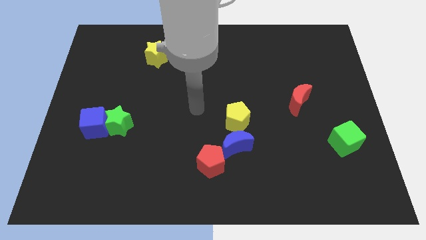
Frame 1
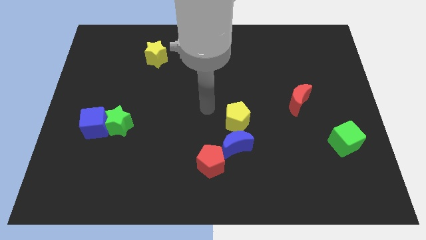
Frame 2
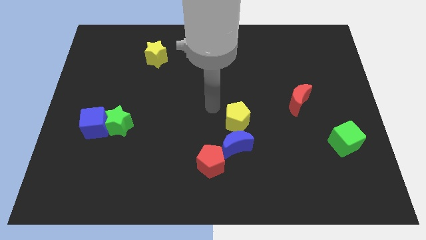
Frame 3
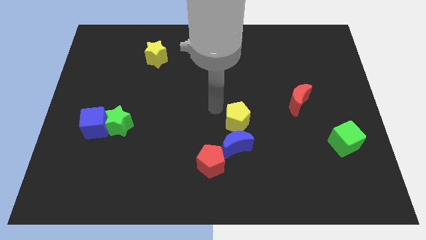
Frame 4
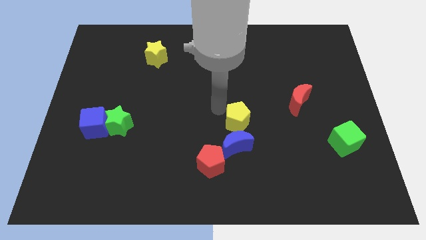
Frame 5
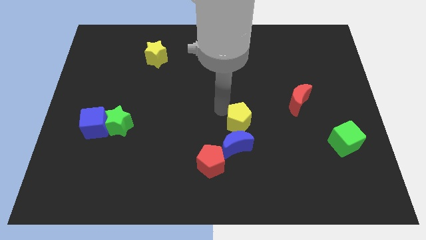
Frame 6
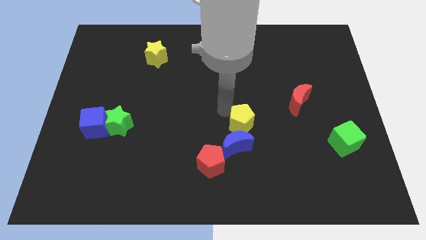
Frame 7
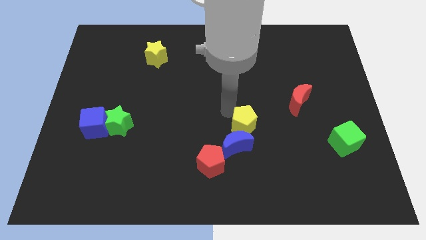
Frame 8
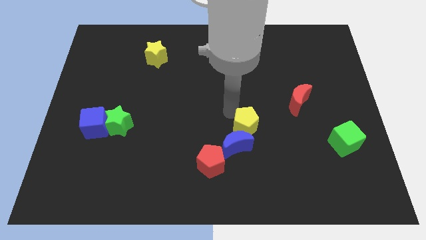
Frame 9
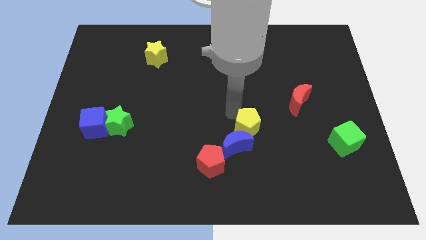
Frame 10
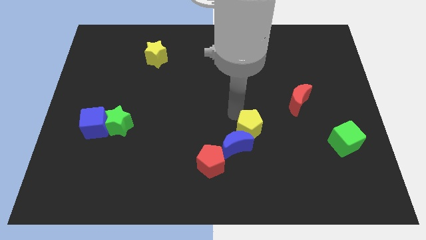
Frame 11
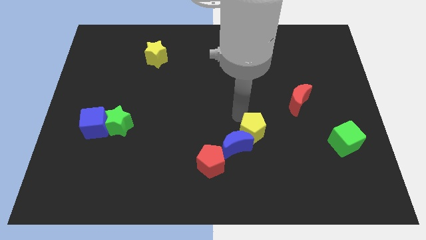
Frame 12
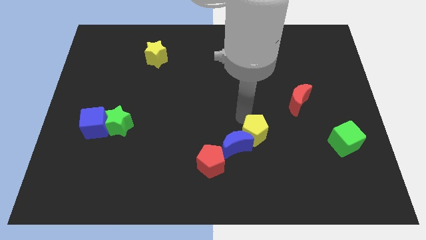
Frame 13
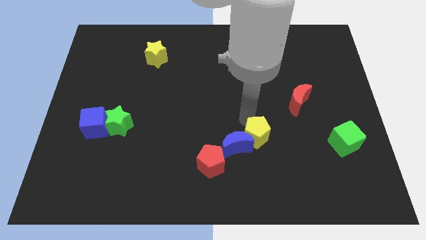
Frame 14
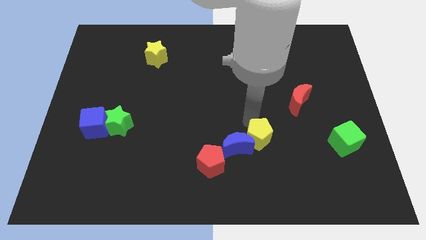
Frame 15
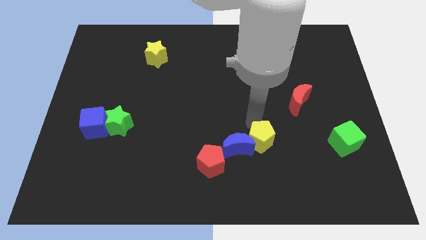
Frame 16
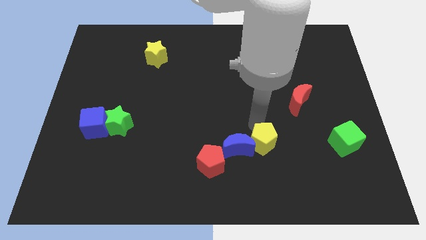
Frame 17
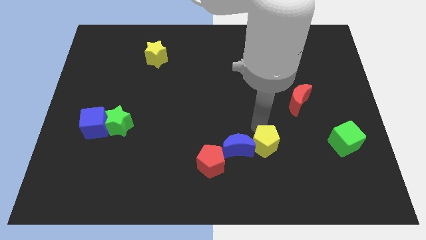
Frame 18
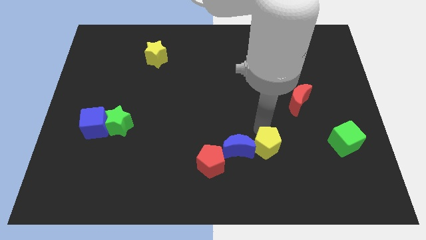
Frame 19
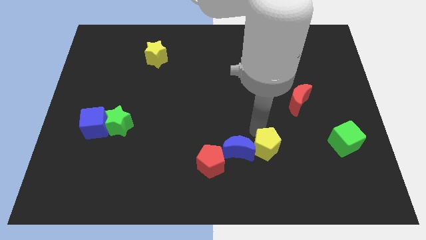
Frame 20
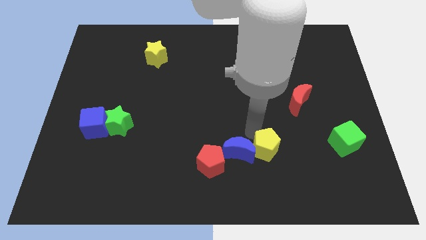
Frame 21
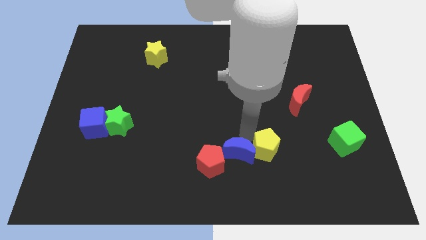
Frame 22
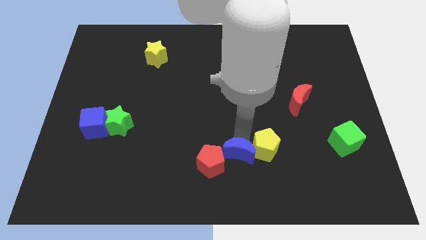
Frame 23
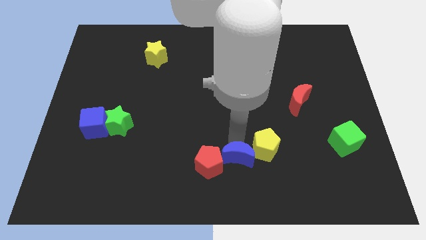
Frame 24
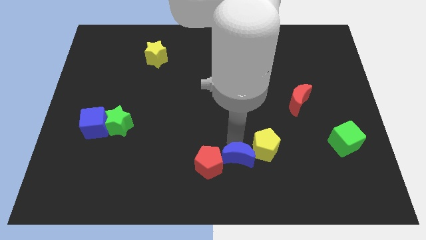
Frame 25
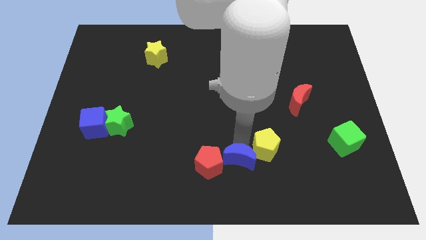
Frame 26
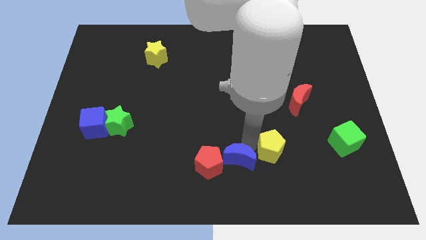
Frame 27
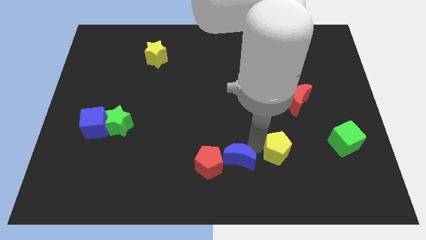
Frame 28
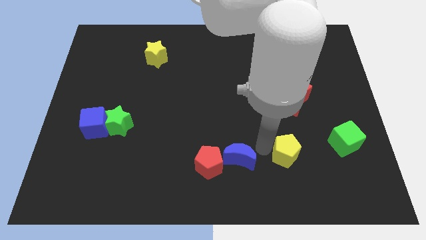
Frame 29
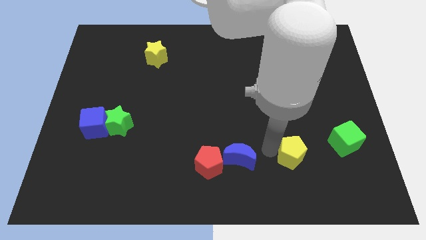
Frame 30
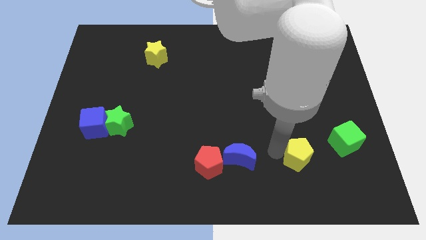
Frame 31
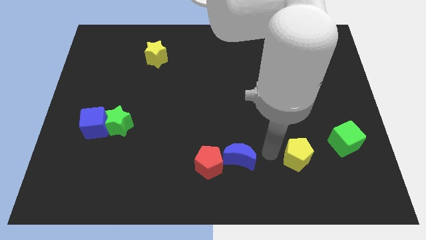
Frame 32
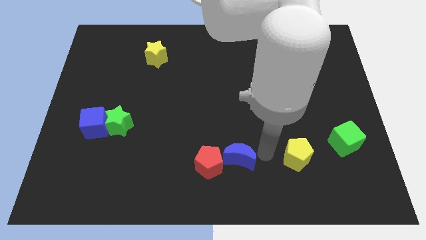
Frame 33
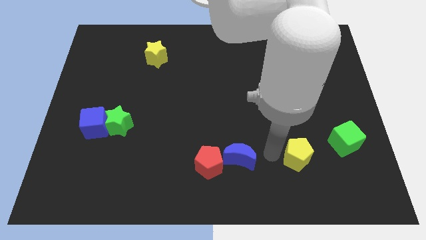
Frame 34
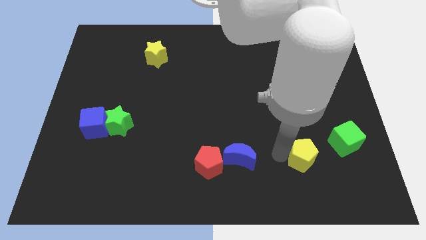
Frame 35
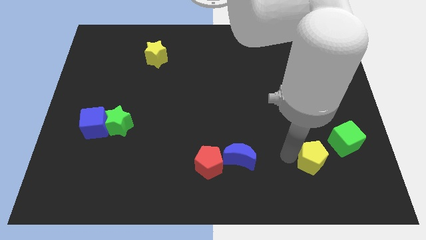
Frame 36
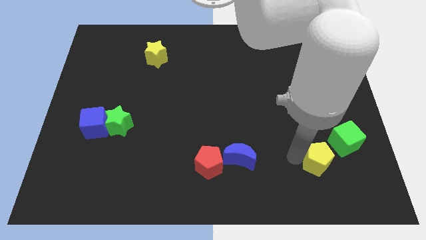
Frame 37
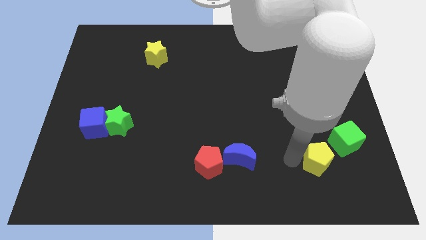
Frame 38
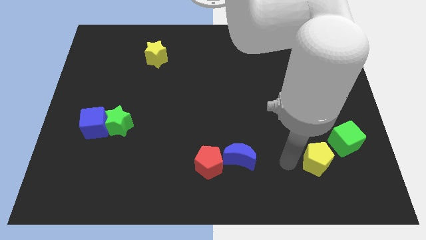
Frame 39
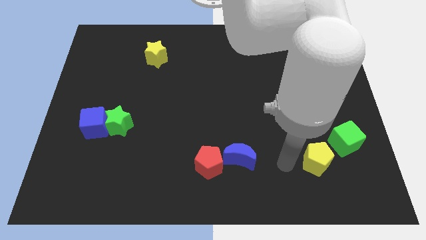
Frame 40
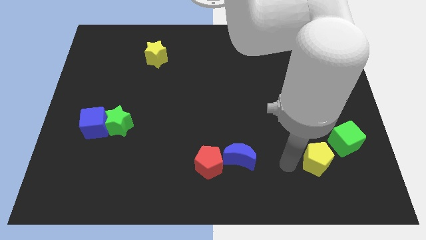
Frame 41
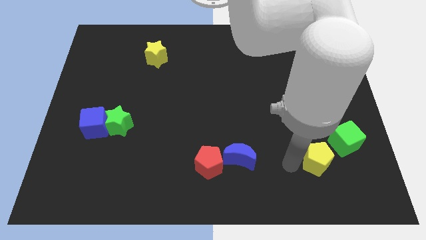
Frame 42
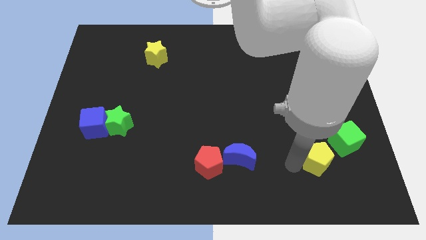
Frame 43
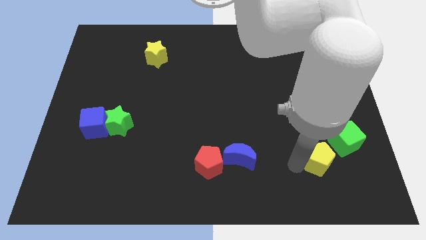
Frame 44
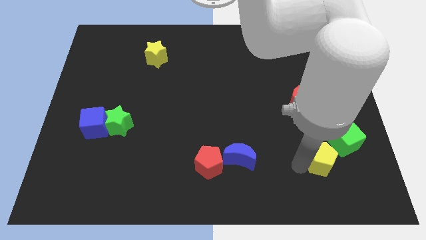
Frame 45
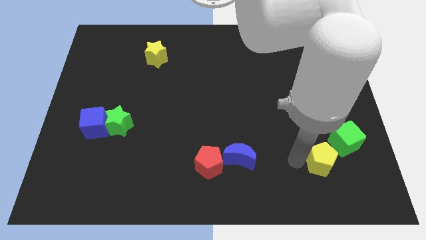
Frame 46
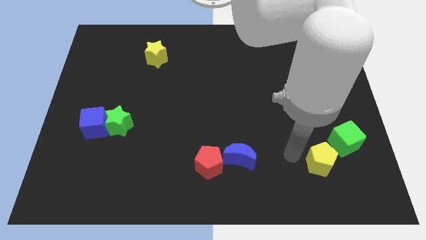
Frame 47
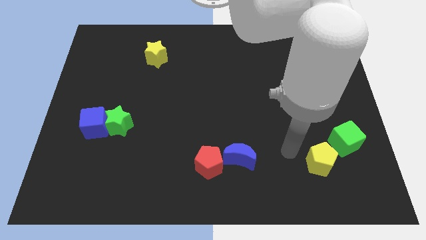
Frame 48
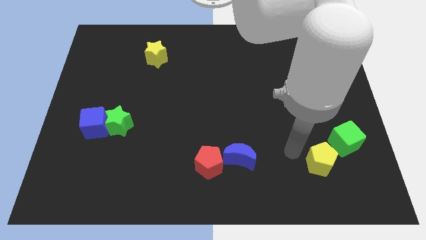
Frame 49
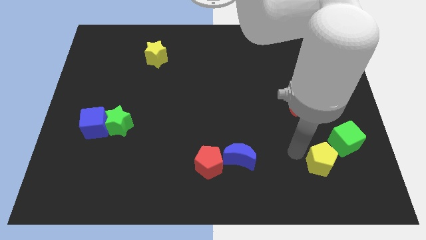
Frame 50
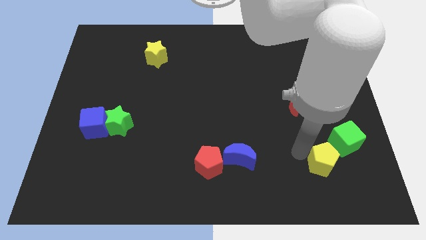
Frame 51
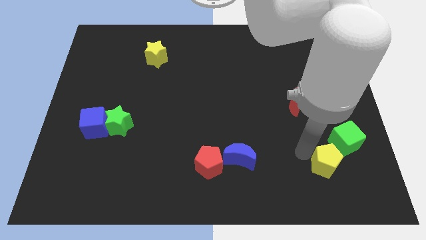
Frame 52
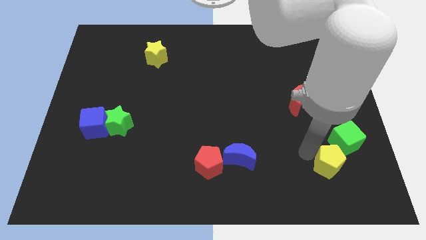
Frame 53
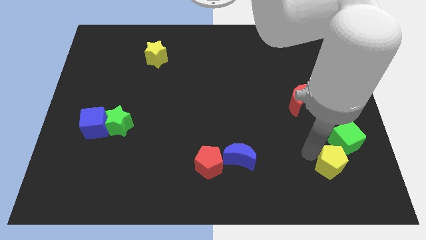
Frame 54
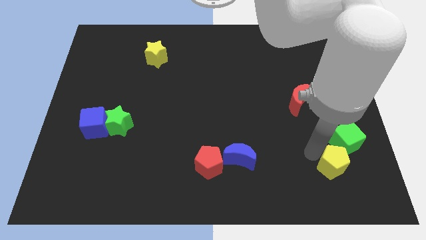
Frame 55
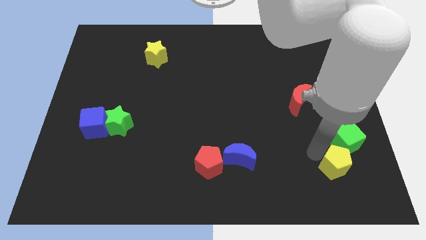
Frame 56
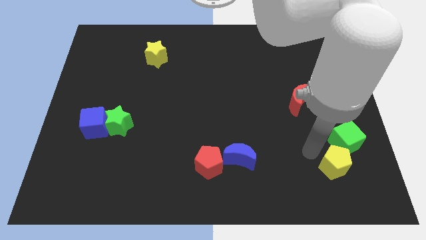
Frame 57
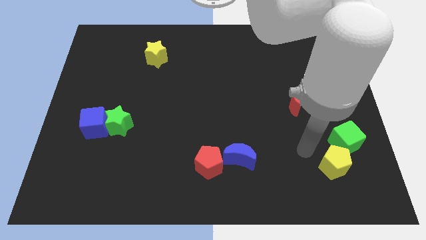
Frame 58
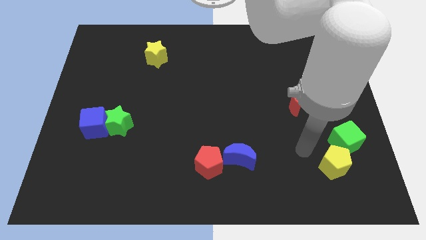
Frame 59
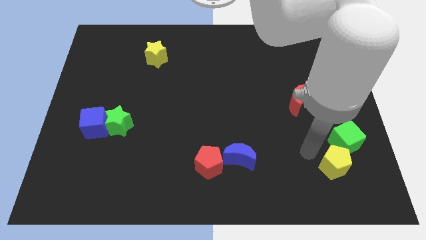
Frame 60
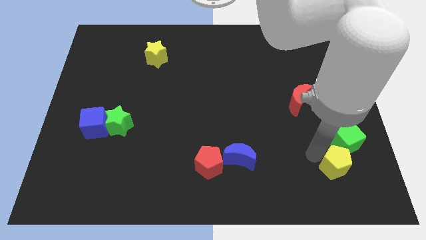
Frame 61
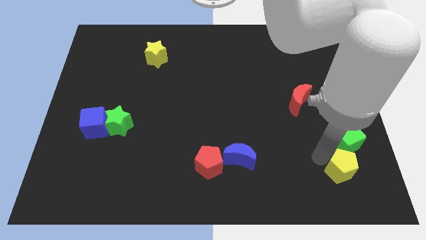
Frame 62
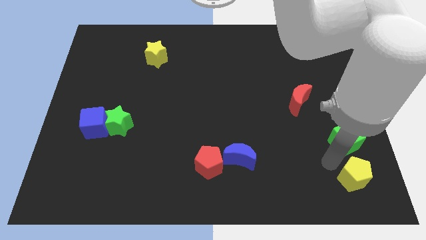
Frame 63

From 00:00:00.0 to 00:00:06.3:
slide the yellow pentagon to the bottom right

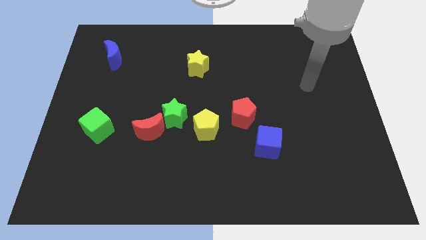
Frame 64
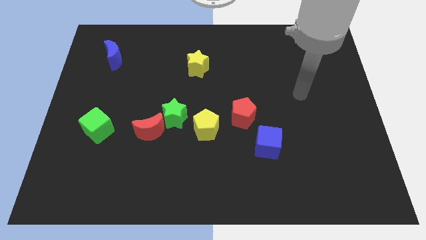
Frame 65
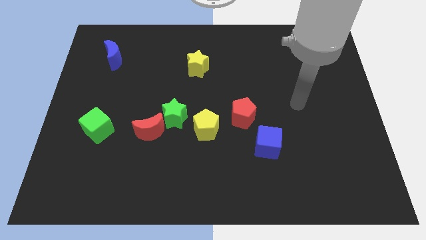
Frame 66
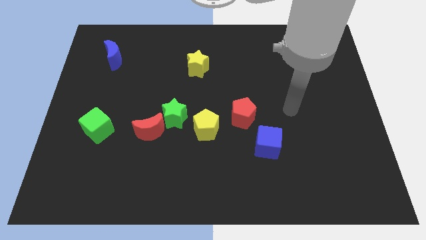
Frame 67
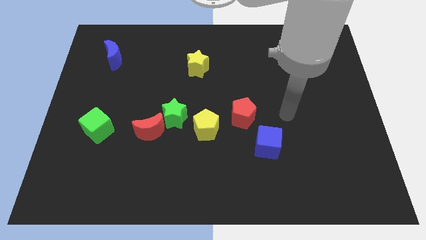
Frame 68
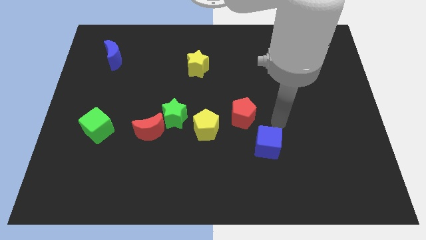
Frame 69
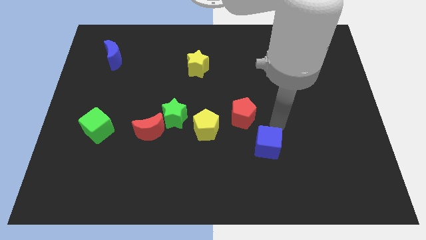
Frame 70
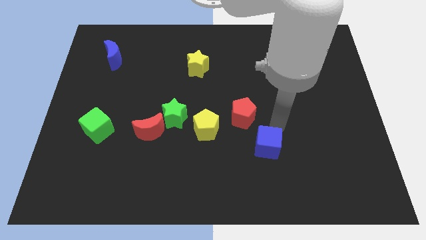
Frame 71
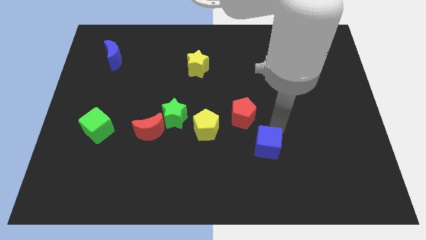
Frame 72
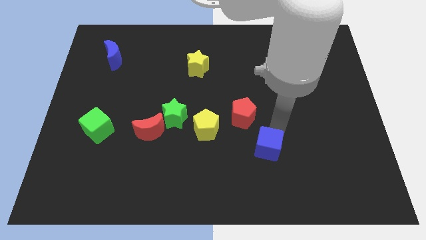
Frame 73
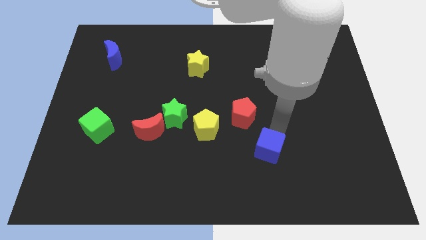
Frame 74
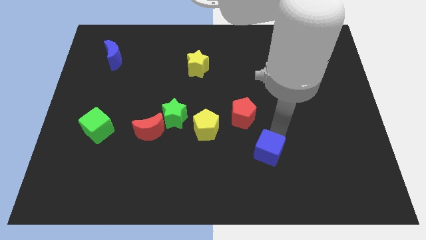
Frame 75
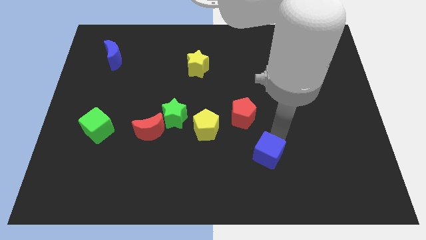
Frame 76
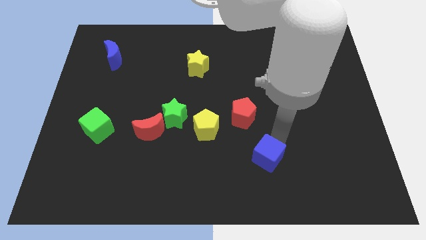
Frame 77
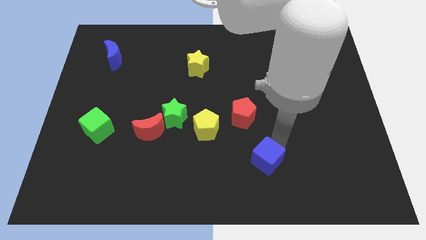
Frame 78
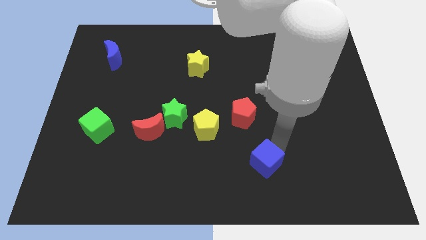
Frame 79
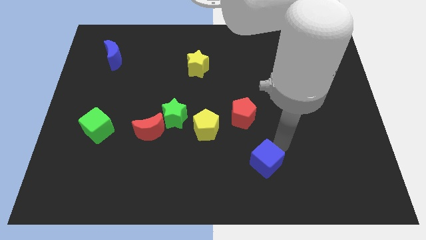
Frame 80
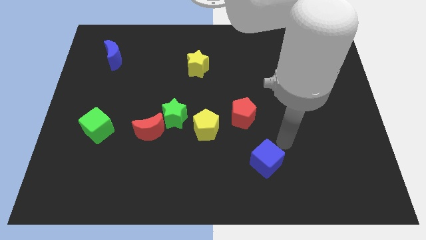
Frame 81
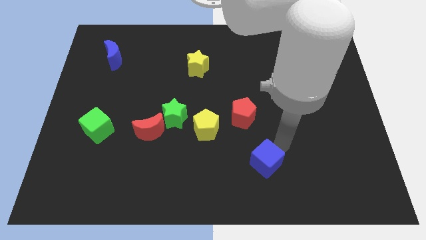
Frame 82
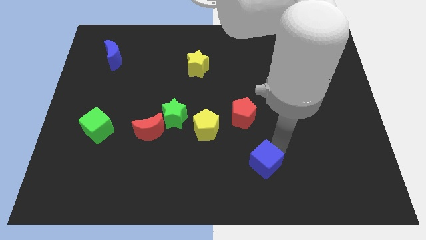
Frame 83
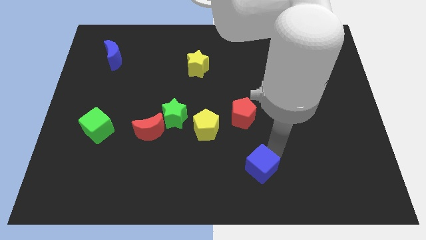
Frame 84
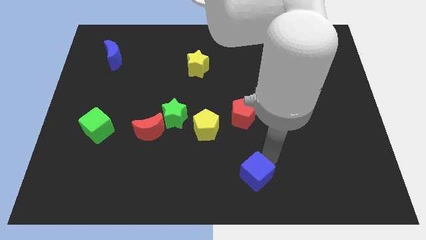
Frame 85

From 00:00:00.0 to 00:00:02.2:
push the blue cube to the bottom
